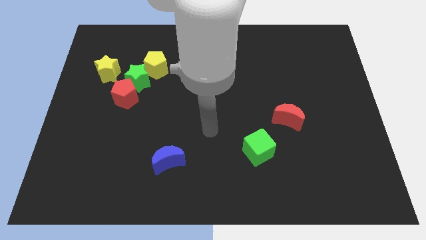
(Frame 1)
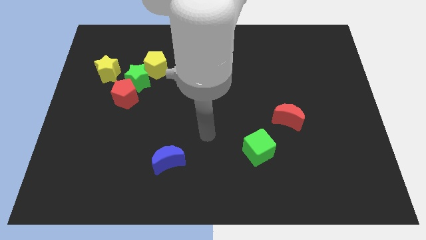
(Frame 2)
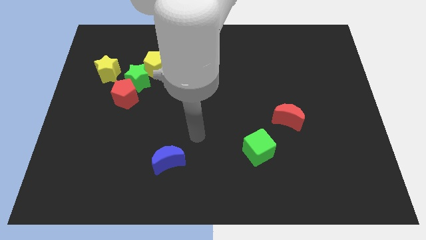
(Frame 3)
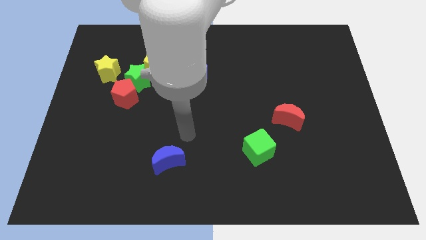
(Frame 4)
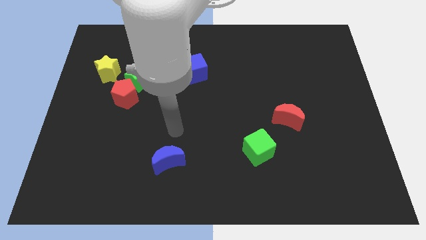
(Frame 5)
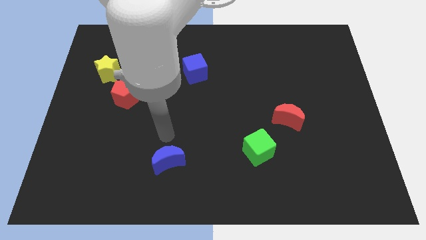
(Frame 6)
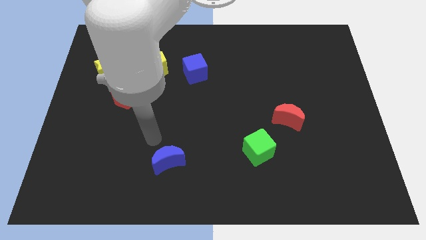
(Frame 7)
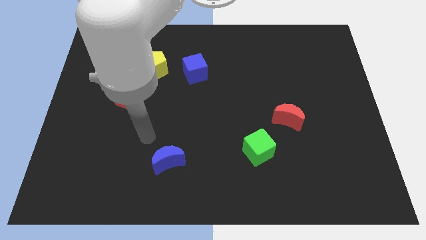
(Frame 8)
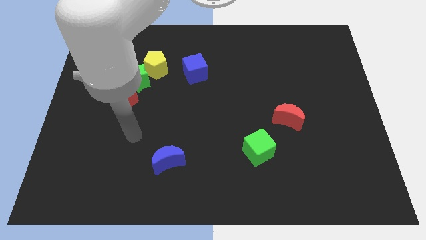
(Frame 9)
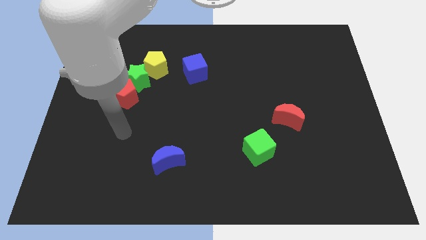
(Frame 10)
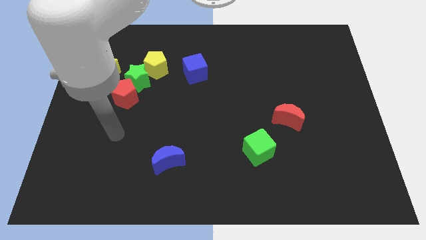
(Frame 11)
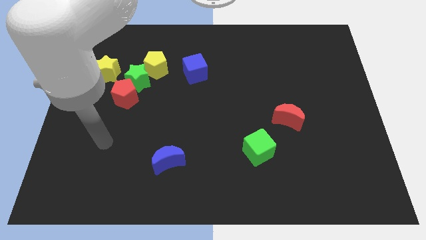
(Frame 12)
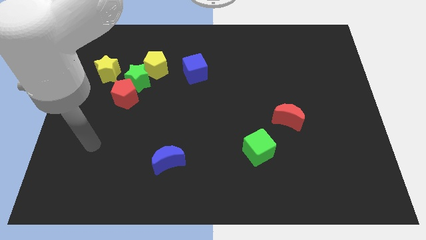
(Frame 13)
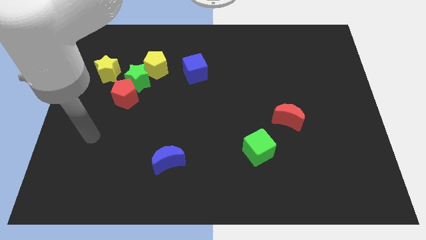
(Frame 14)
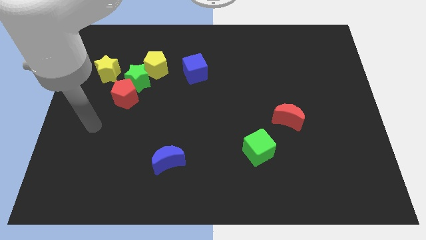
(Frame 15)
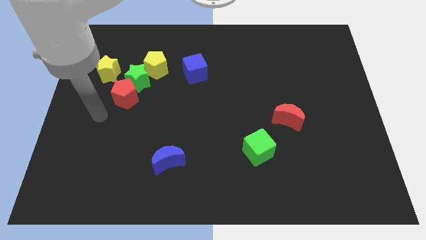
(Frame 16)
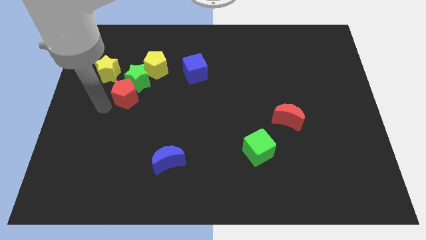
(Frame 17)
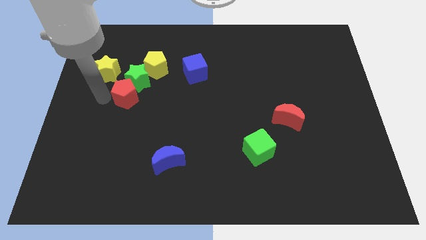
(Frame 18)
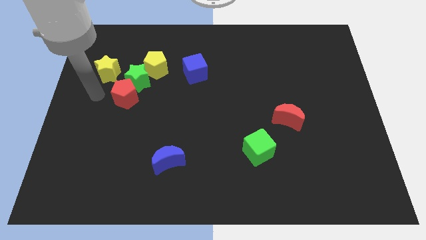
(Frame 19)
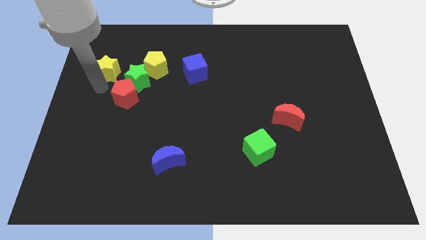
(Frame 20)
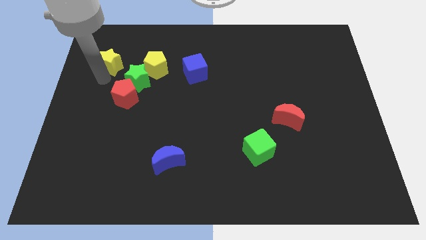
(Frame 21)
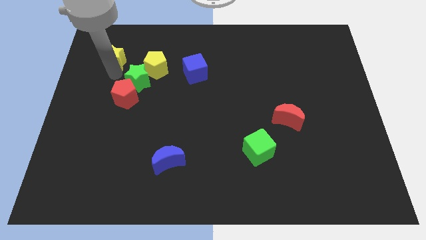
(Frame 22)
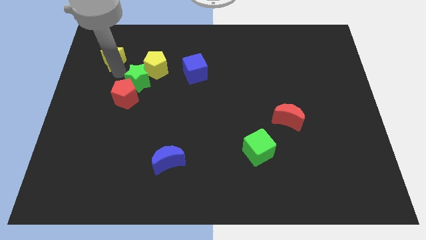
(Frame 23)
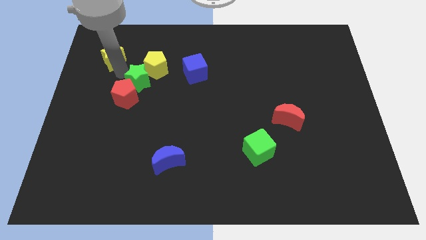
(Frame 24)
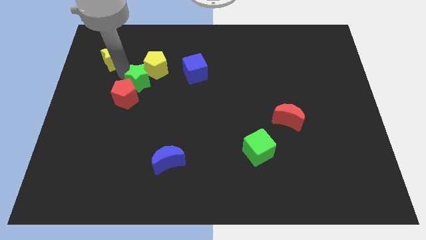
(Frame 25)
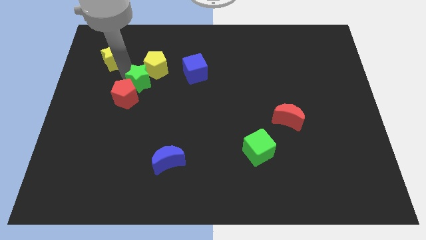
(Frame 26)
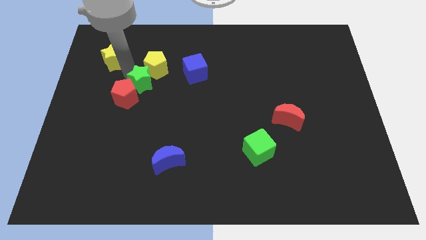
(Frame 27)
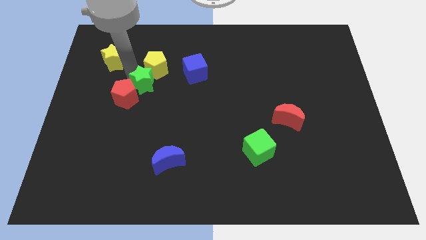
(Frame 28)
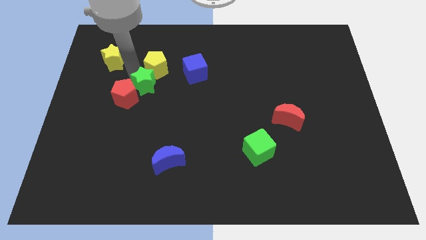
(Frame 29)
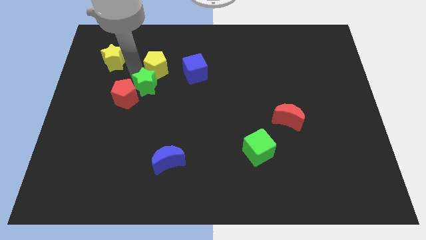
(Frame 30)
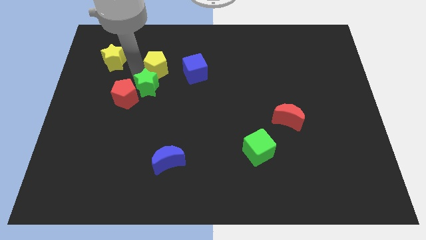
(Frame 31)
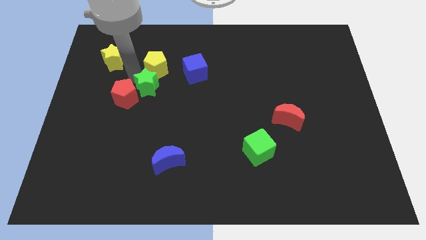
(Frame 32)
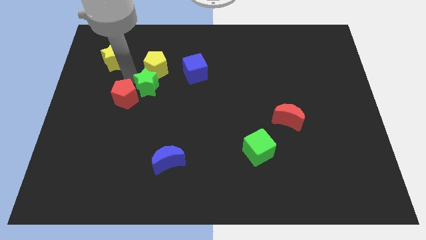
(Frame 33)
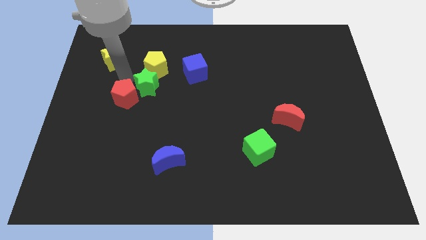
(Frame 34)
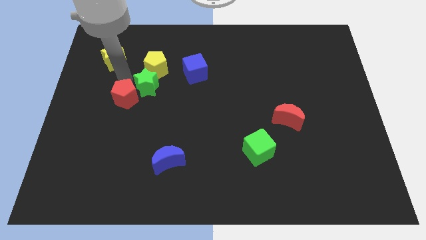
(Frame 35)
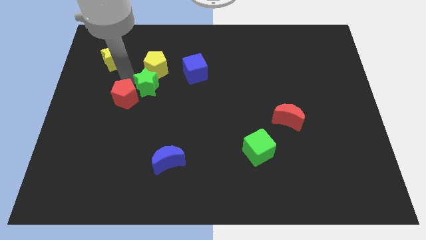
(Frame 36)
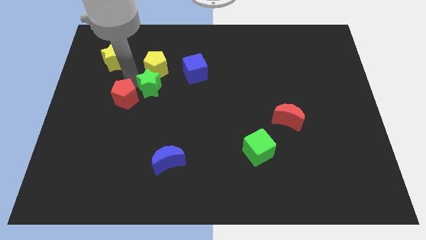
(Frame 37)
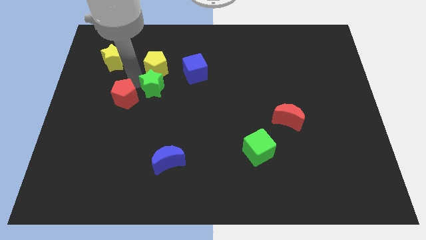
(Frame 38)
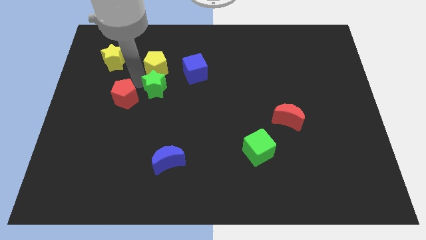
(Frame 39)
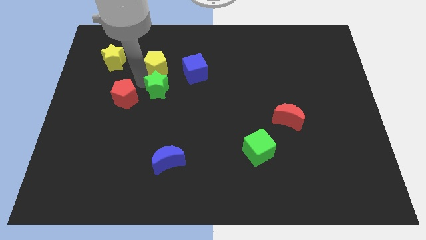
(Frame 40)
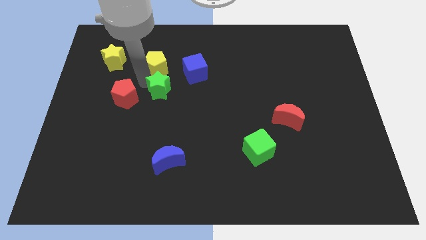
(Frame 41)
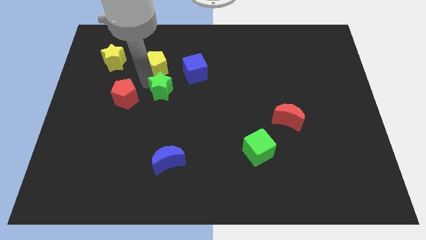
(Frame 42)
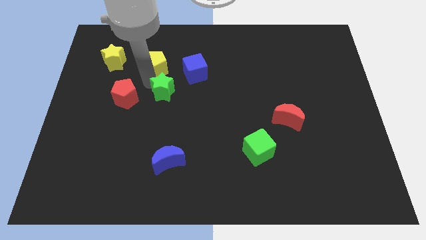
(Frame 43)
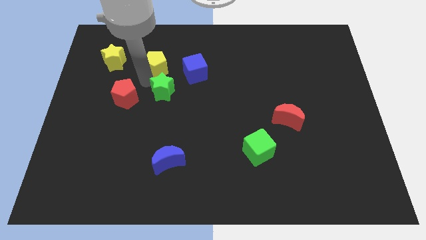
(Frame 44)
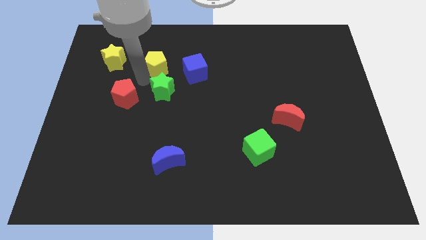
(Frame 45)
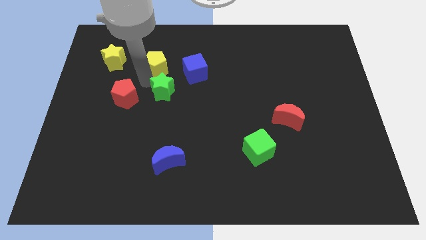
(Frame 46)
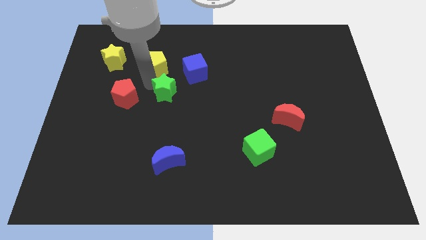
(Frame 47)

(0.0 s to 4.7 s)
pull the green star apart from the group of blocks

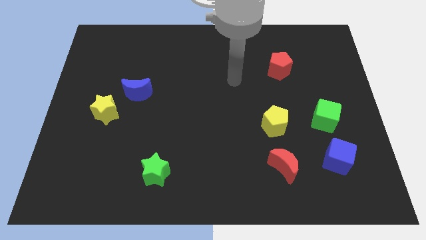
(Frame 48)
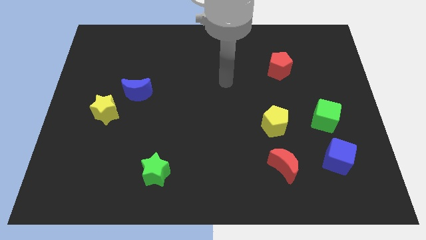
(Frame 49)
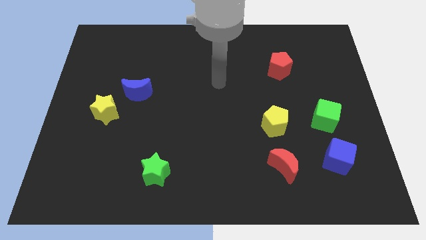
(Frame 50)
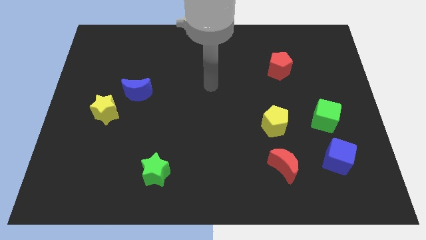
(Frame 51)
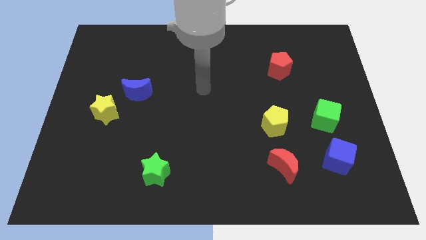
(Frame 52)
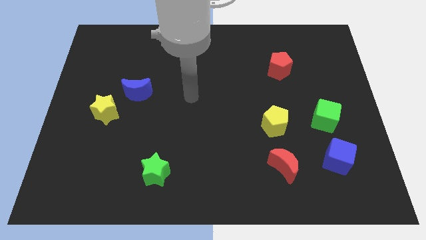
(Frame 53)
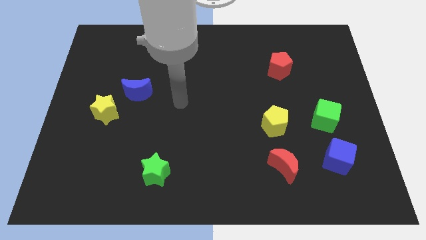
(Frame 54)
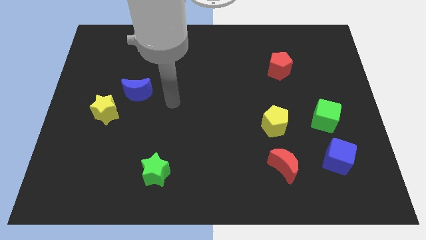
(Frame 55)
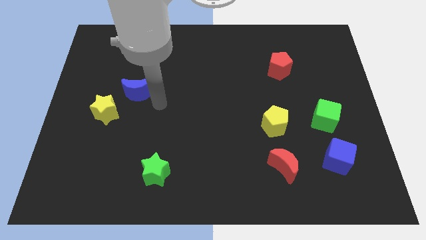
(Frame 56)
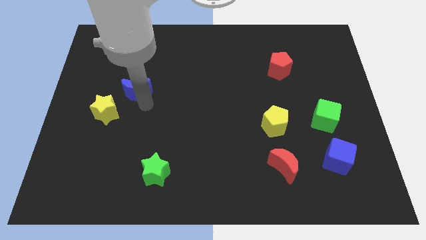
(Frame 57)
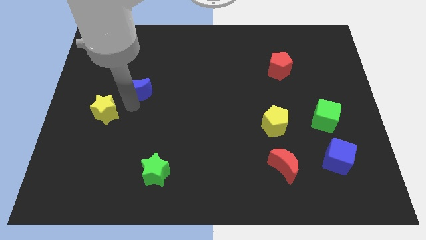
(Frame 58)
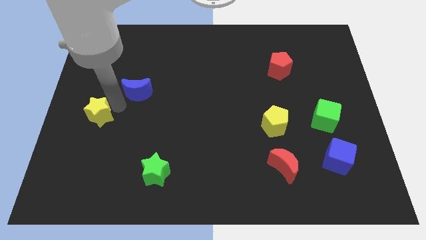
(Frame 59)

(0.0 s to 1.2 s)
move the blue moon away from the yellow star

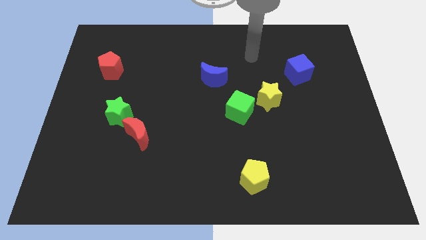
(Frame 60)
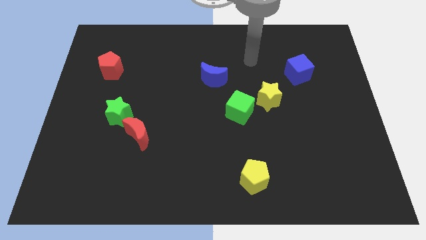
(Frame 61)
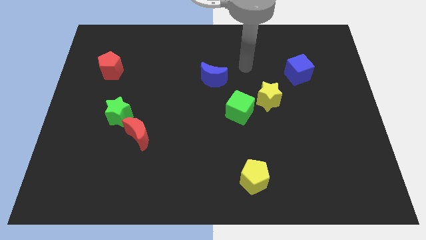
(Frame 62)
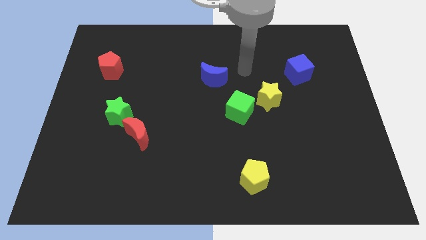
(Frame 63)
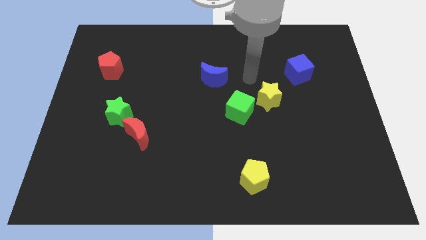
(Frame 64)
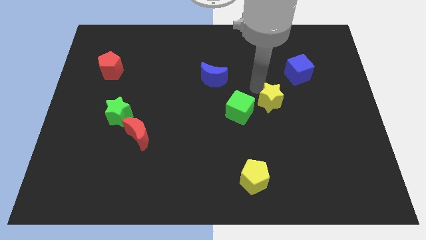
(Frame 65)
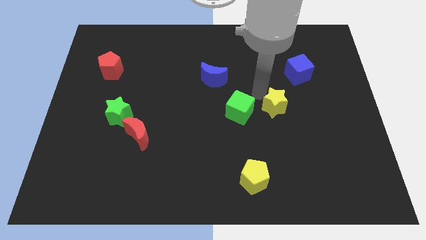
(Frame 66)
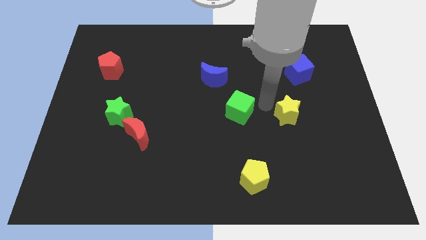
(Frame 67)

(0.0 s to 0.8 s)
separate the green cube from the yellow star

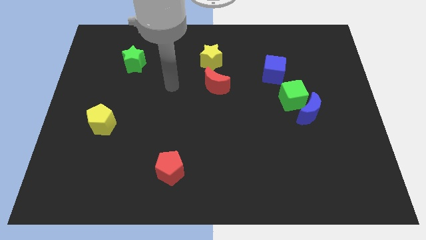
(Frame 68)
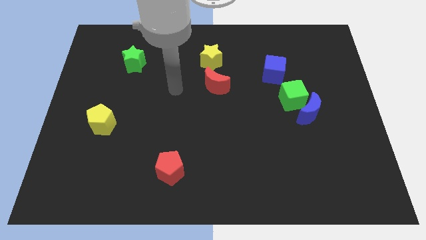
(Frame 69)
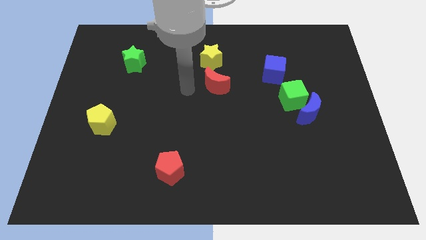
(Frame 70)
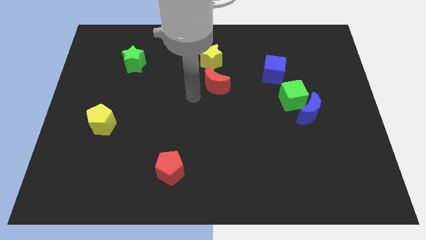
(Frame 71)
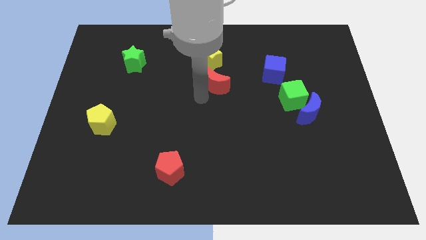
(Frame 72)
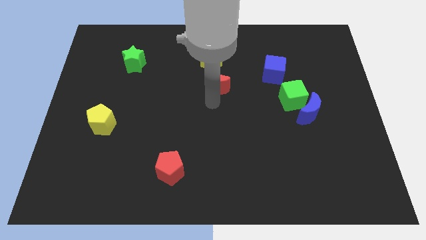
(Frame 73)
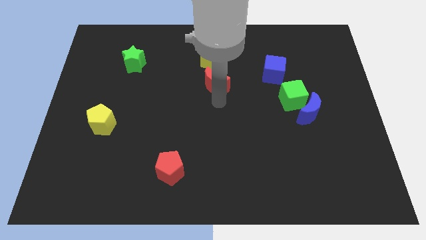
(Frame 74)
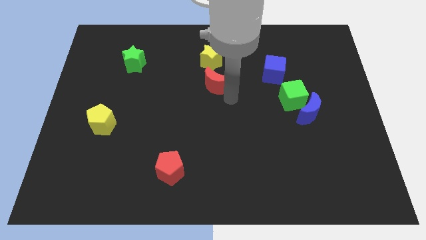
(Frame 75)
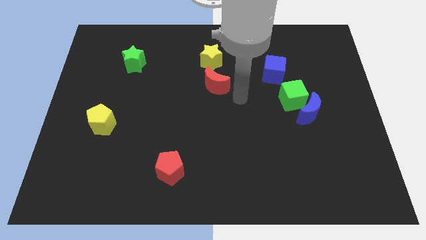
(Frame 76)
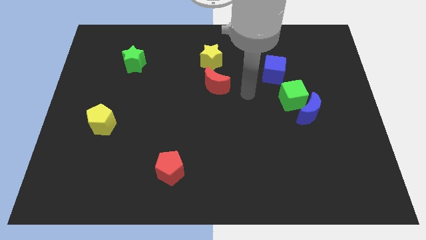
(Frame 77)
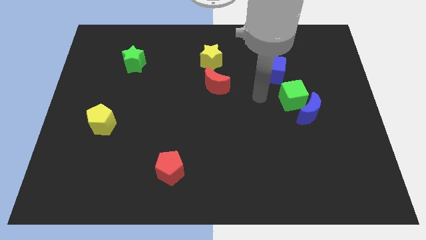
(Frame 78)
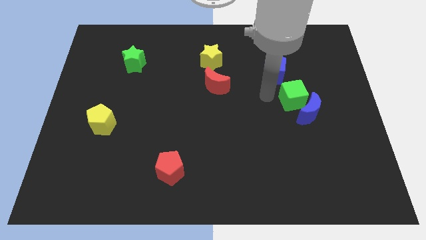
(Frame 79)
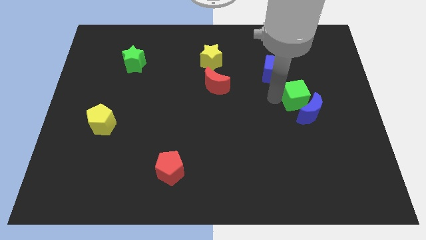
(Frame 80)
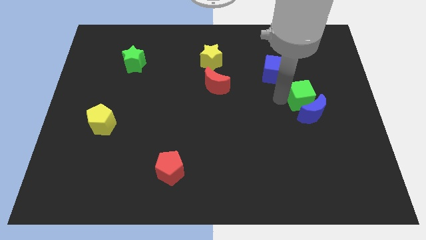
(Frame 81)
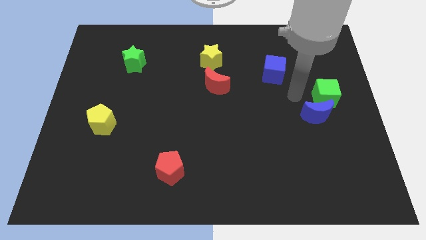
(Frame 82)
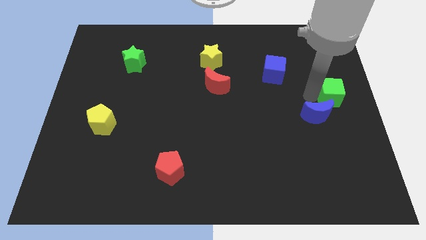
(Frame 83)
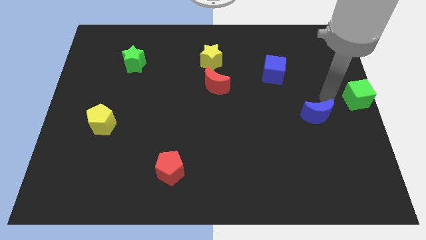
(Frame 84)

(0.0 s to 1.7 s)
separate the blue moon from the green cube

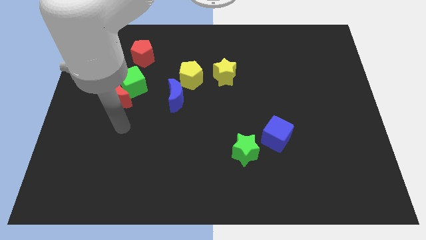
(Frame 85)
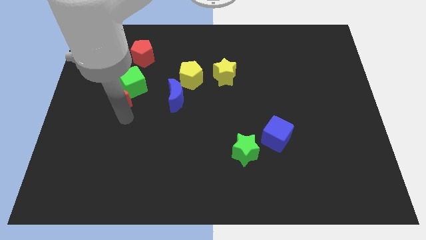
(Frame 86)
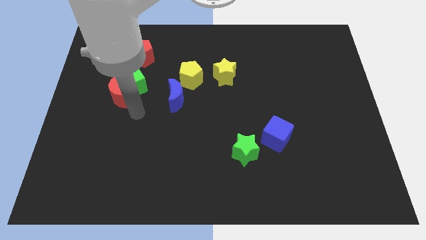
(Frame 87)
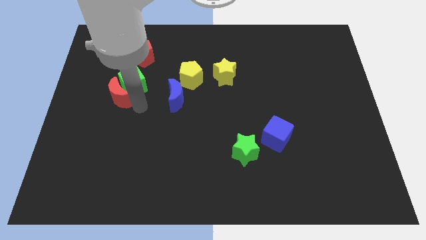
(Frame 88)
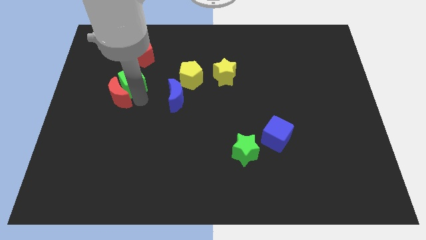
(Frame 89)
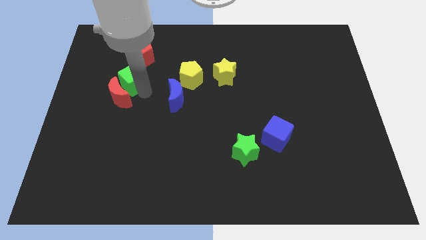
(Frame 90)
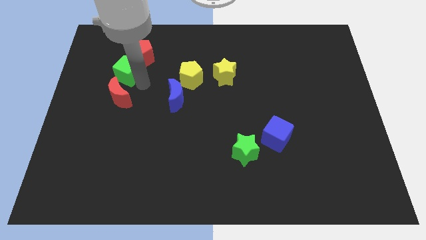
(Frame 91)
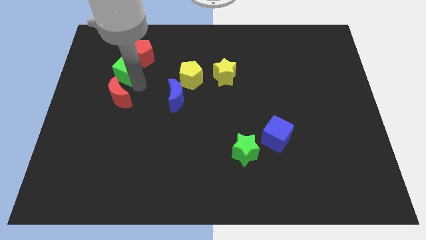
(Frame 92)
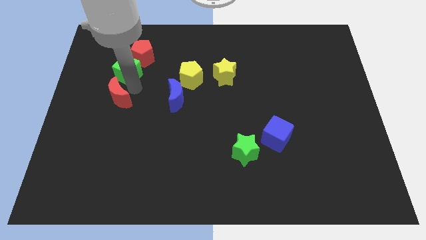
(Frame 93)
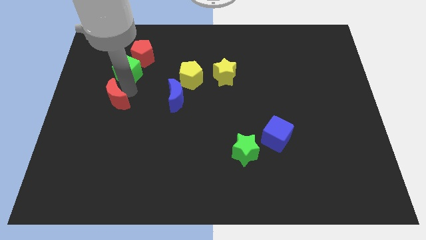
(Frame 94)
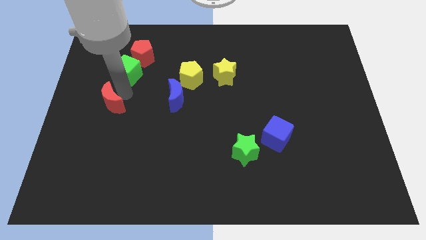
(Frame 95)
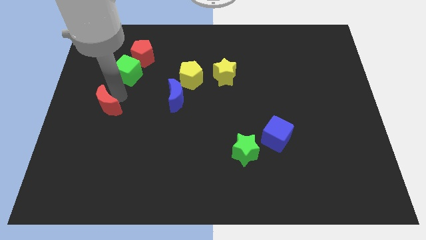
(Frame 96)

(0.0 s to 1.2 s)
move the red moon away from the green cube
